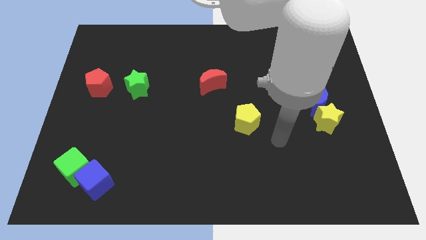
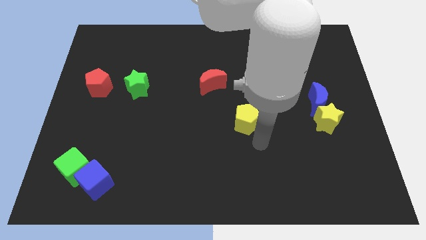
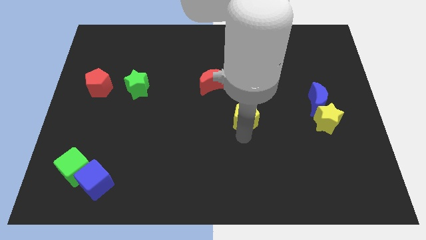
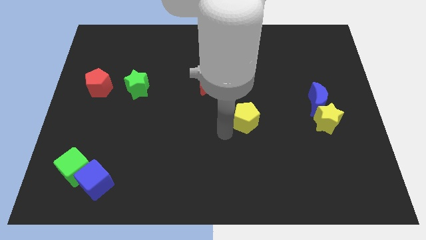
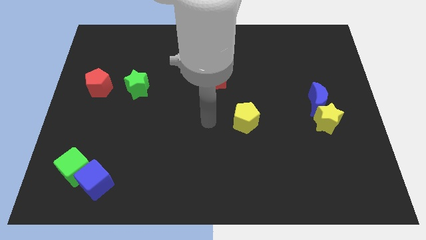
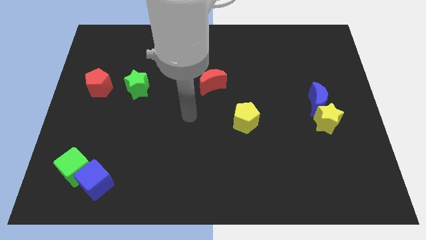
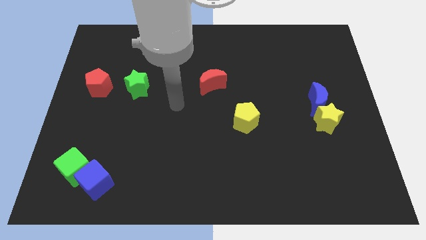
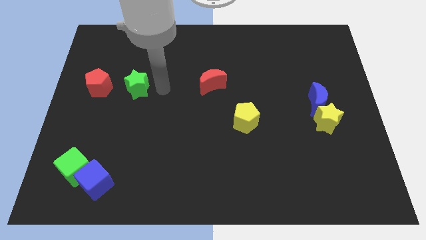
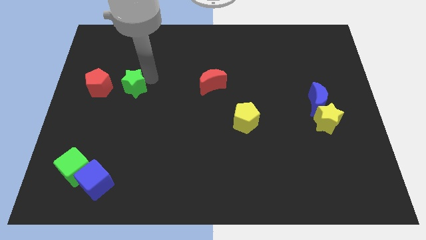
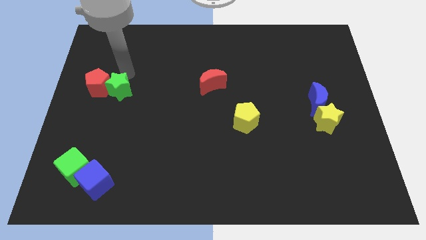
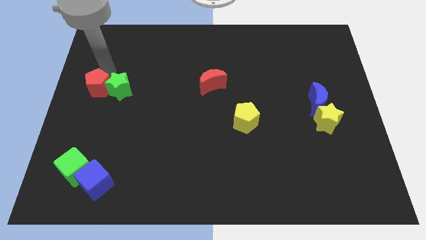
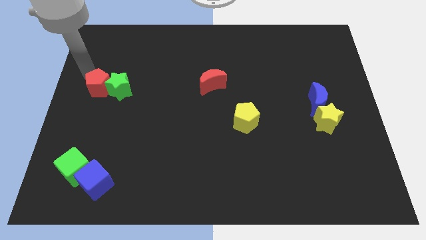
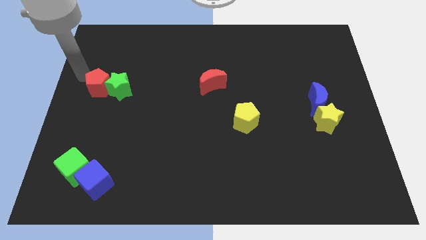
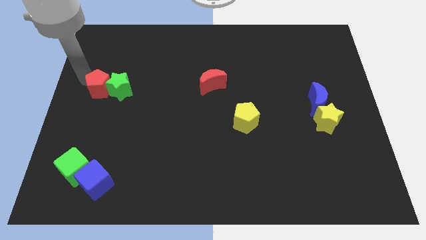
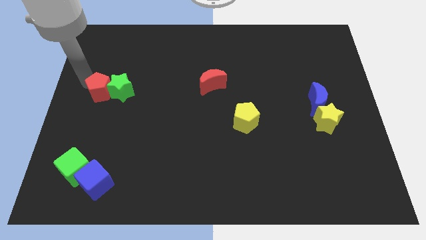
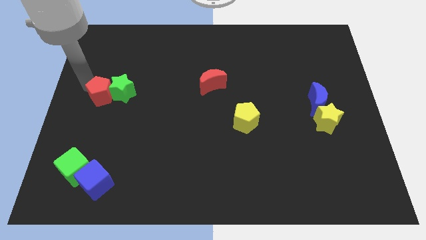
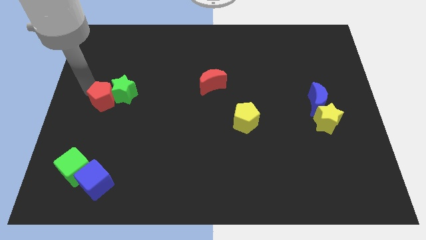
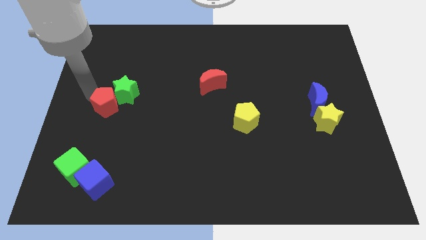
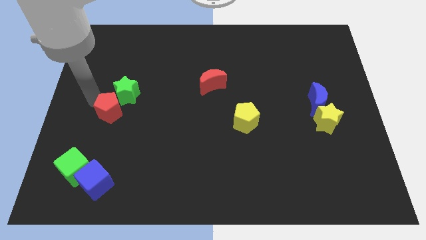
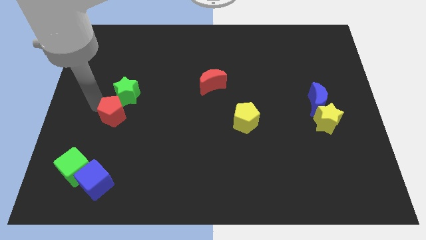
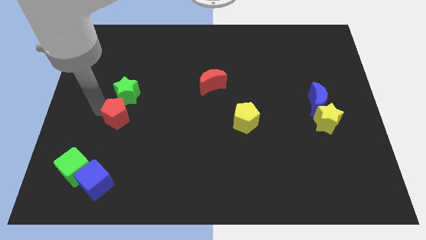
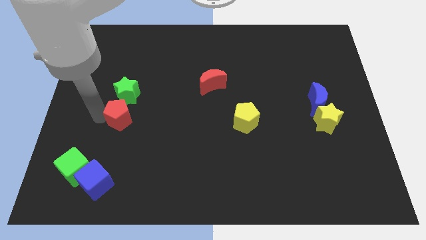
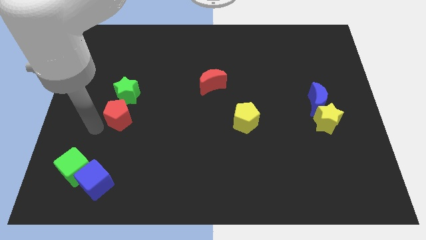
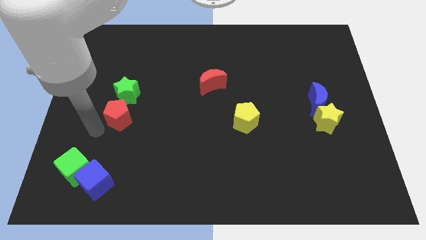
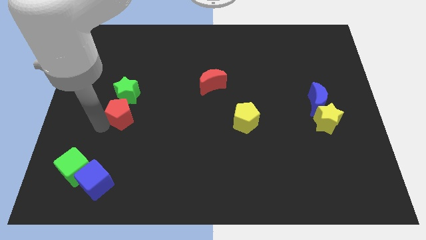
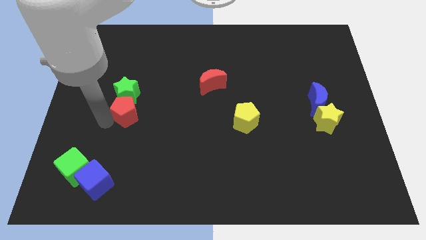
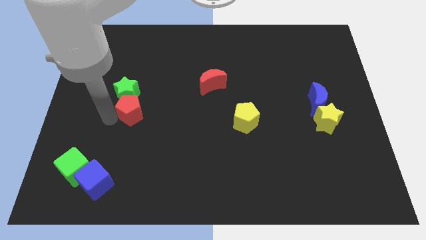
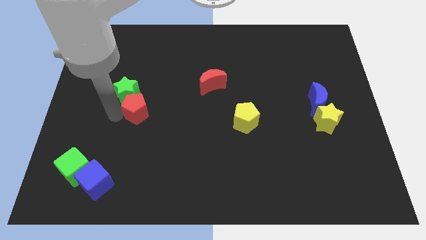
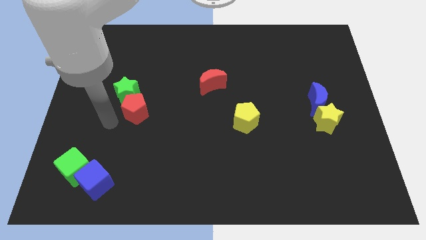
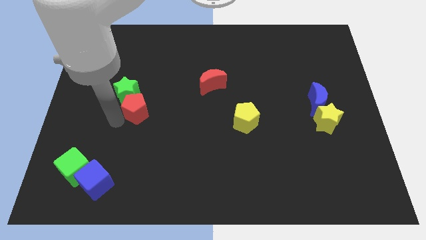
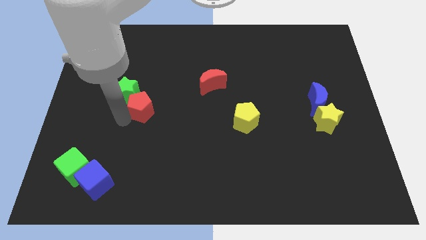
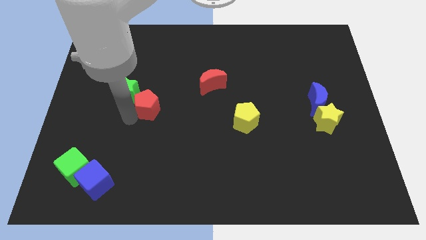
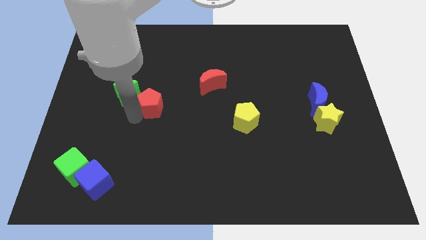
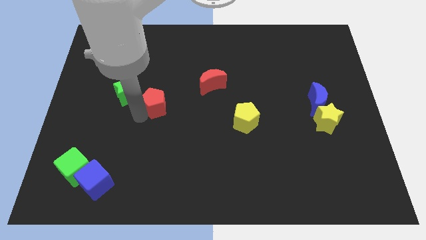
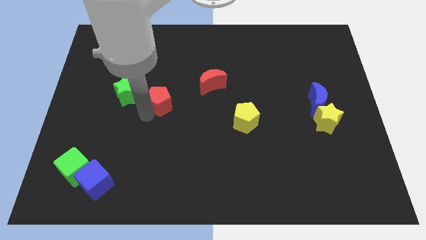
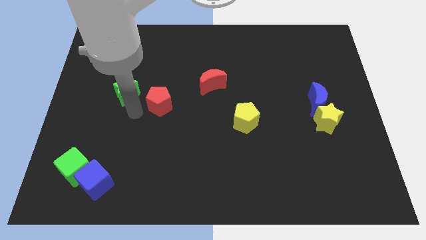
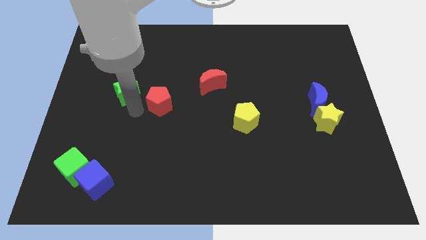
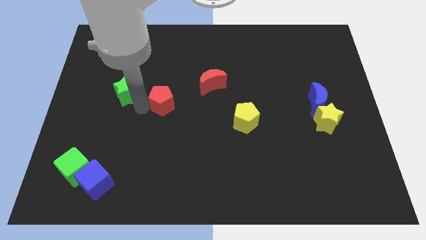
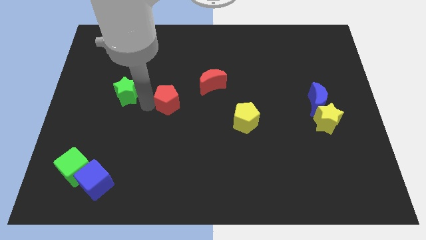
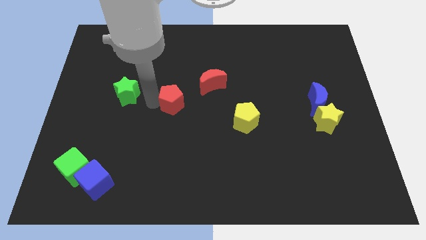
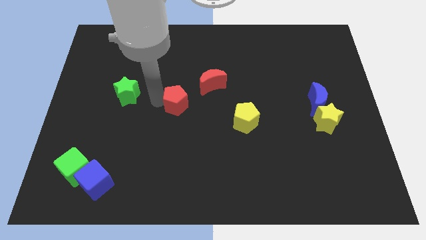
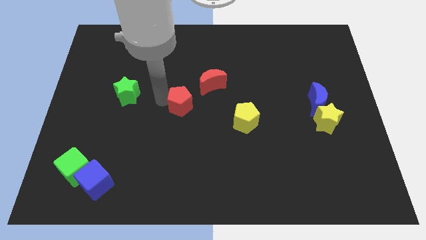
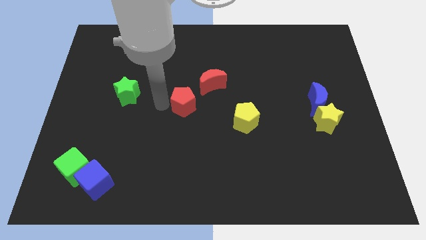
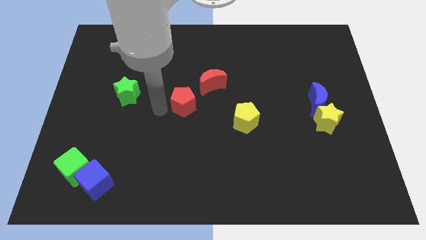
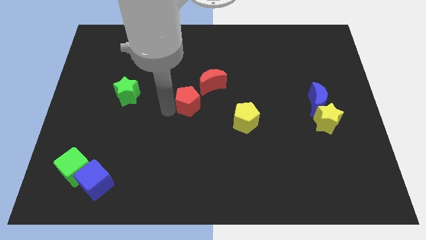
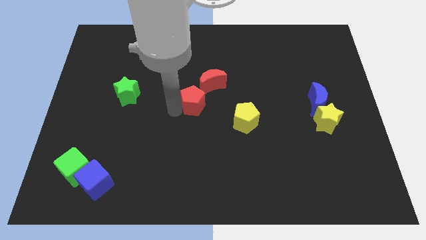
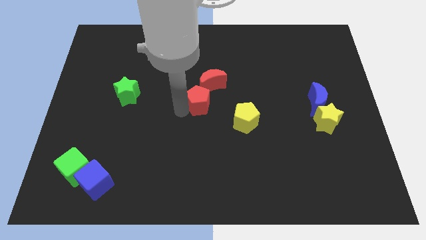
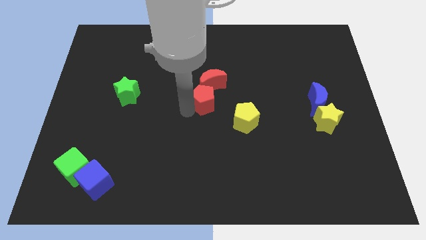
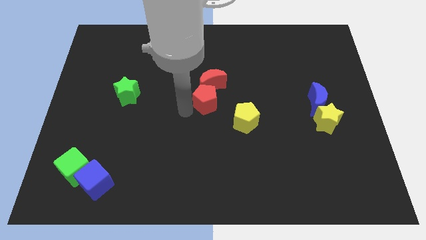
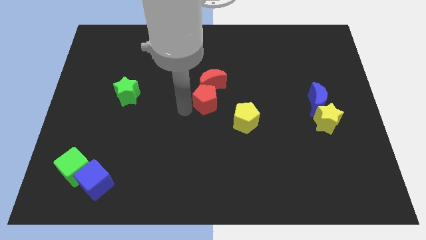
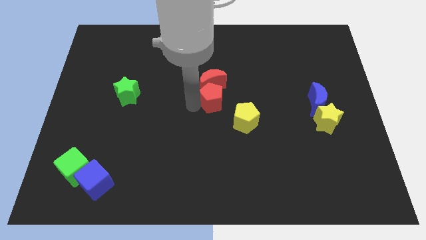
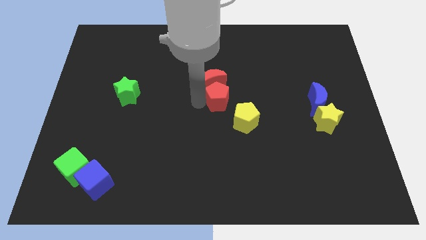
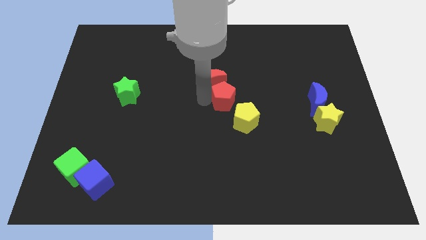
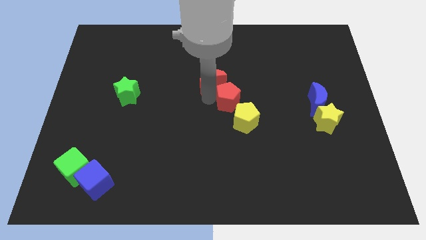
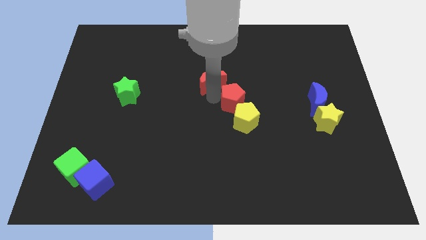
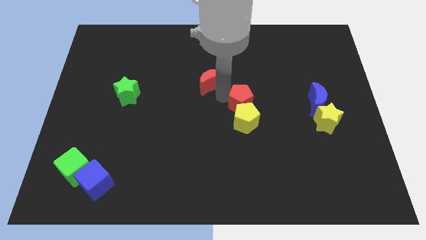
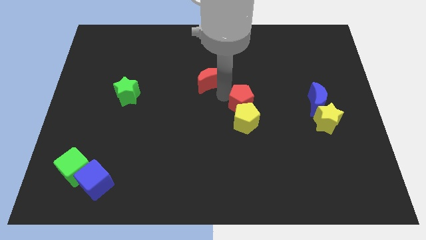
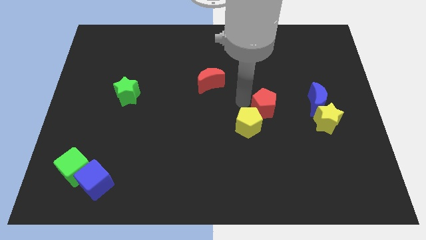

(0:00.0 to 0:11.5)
push the red pentagon left of the yellow star

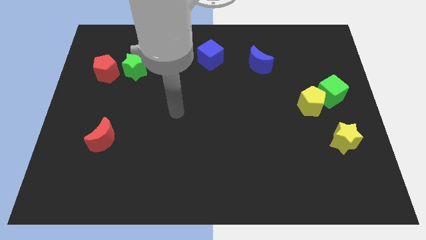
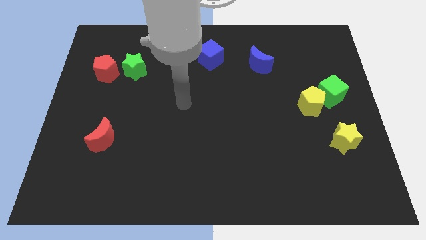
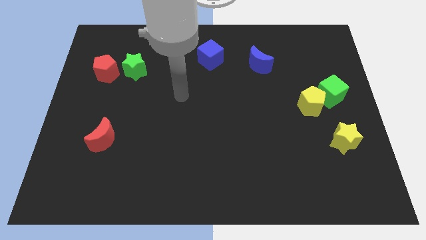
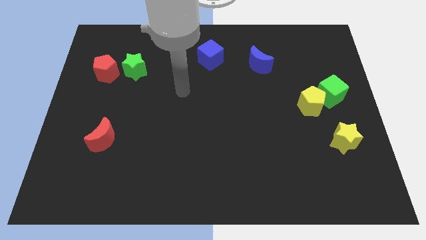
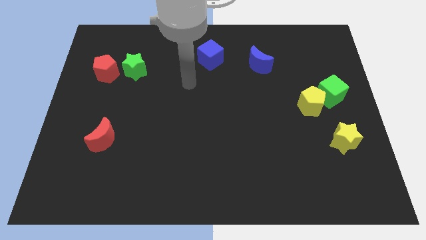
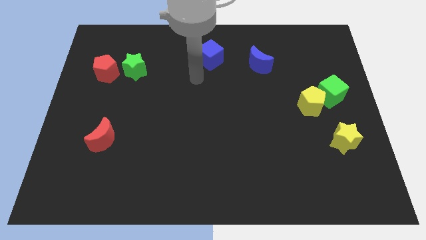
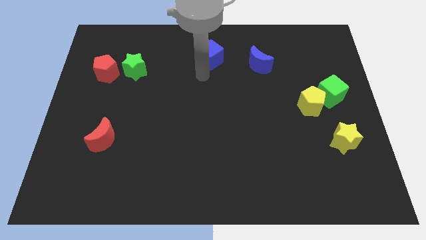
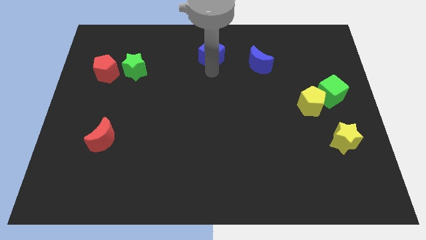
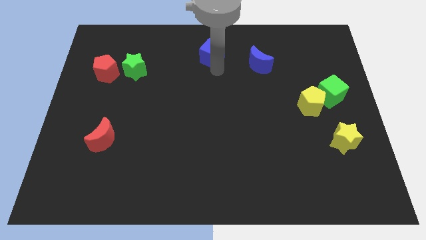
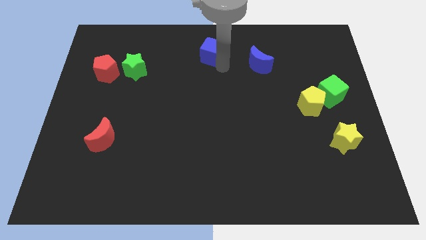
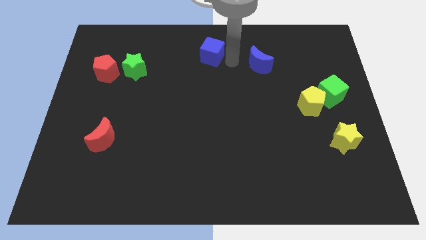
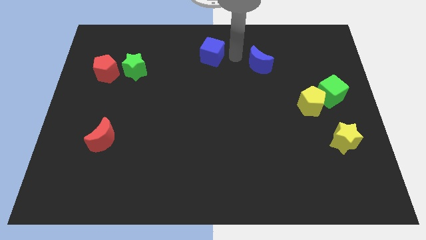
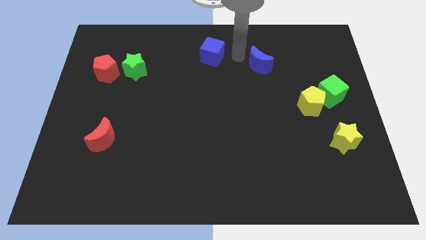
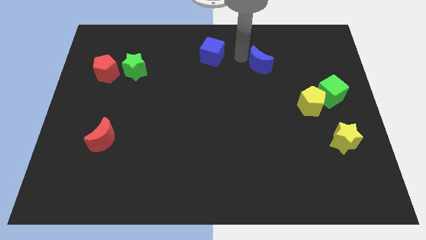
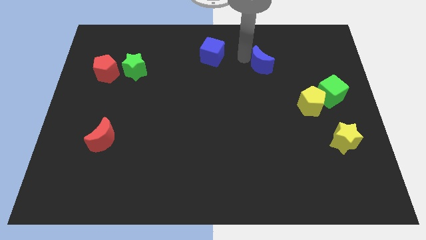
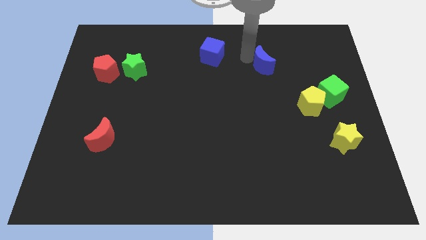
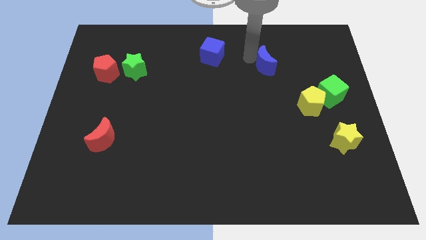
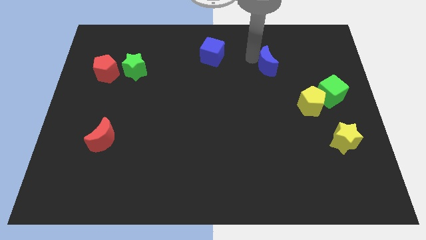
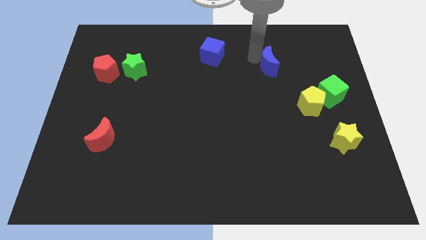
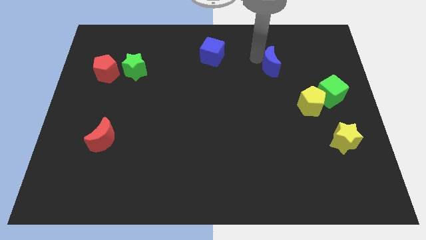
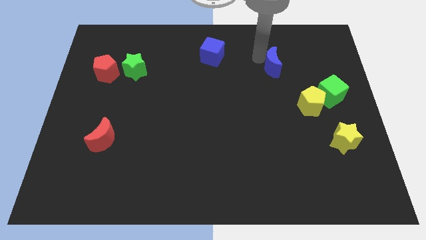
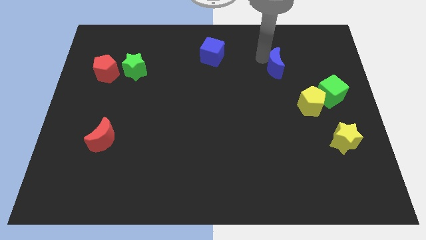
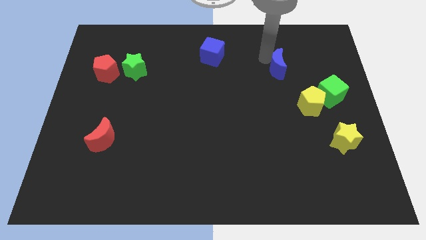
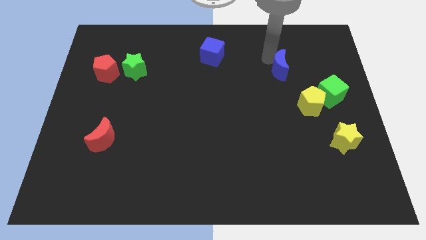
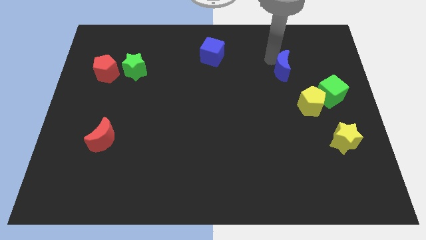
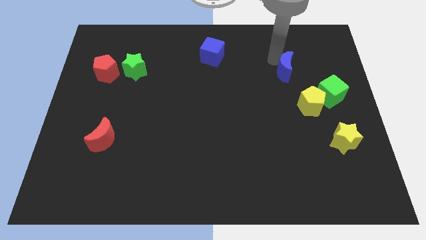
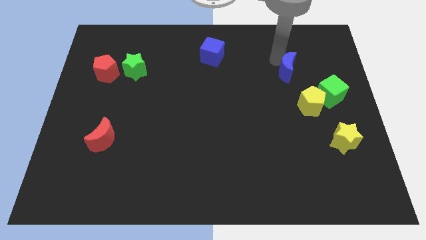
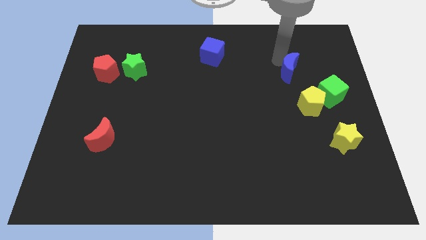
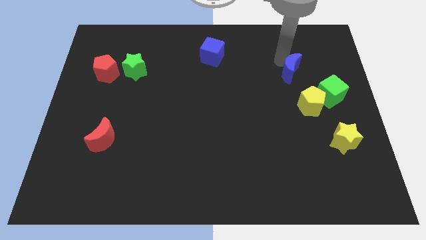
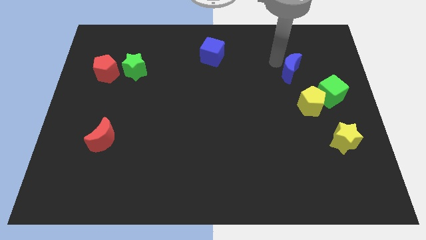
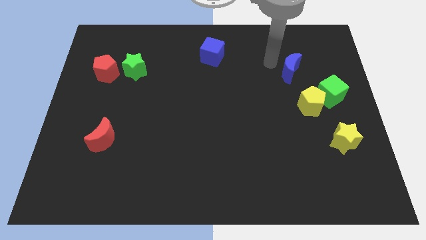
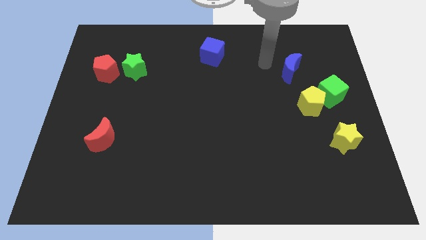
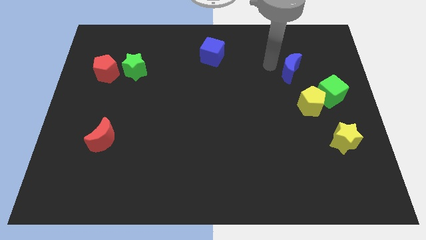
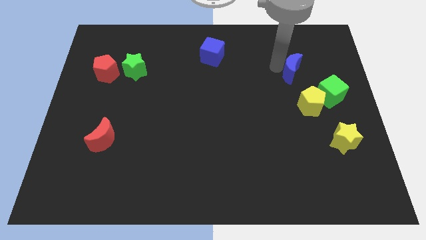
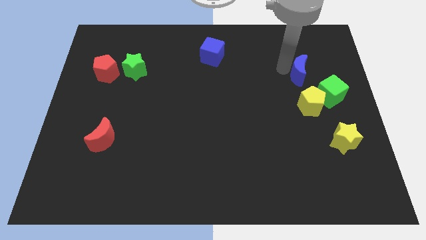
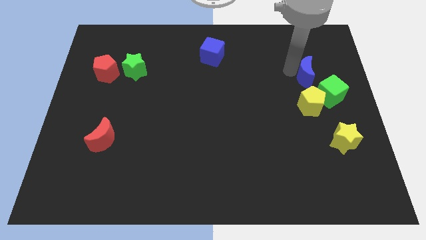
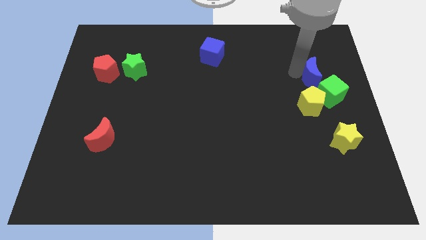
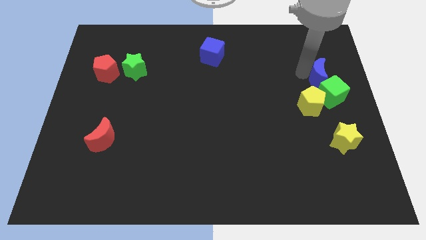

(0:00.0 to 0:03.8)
move the blue moon diagonally up and to the right of the yellow pentagon
